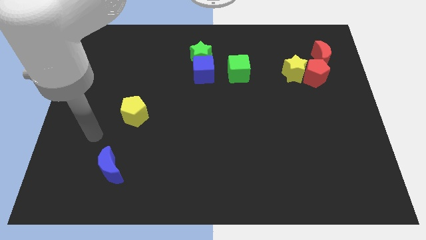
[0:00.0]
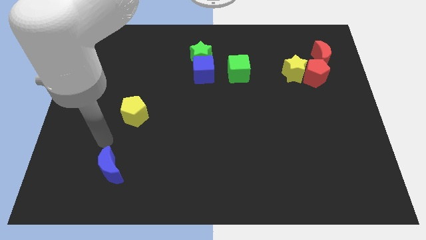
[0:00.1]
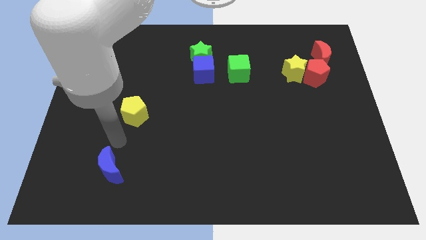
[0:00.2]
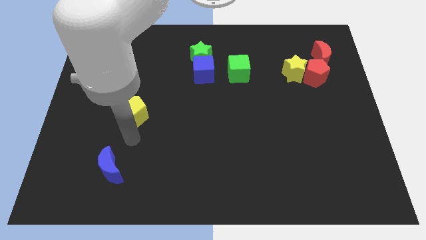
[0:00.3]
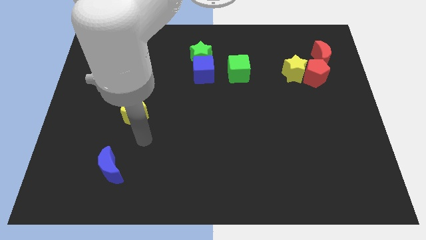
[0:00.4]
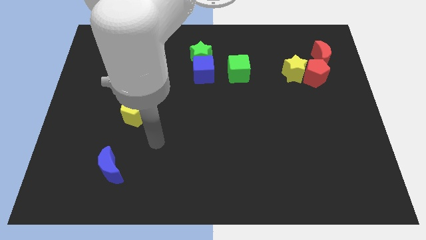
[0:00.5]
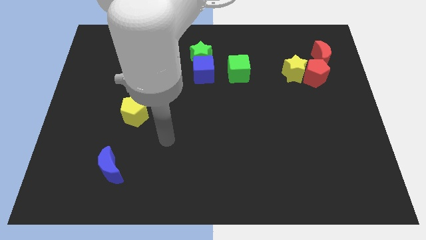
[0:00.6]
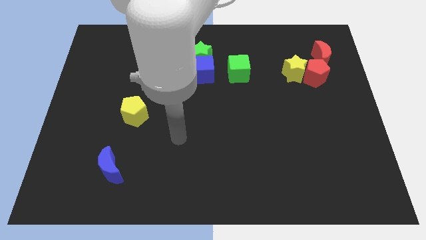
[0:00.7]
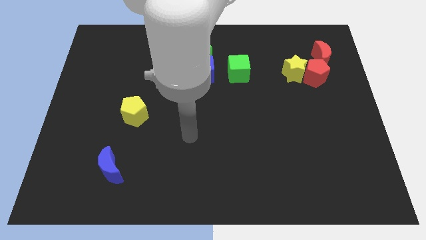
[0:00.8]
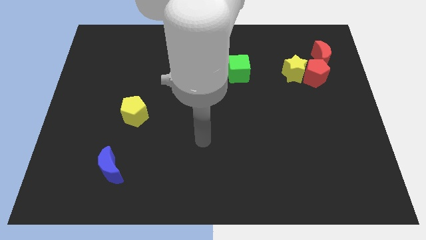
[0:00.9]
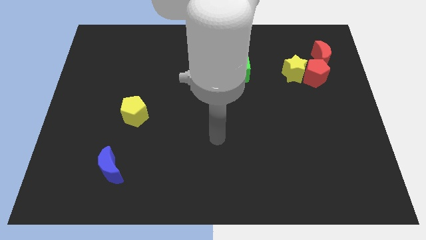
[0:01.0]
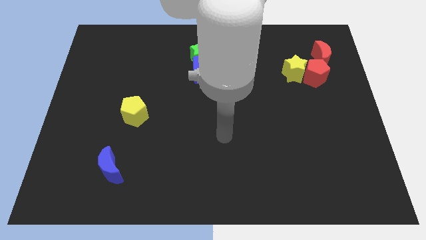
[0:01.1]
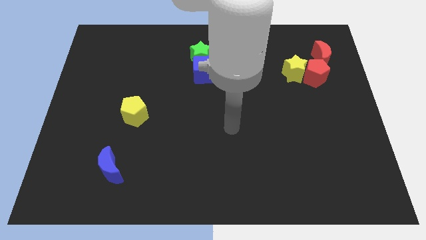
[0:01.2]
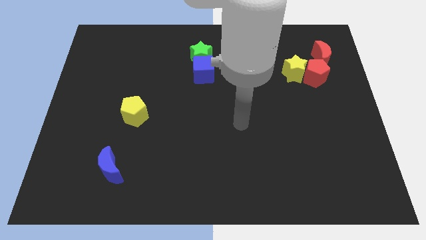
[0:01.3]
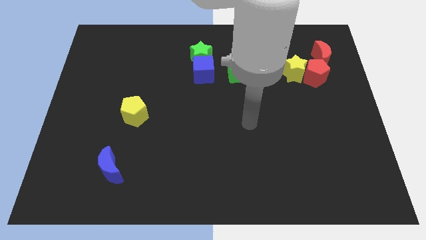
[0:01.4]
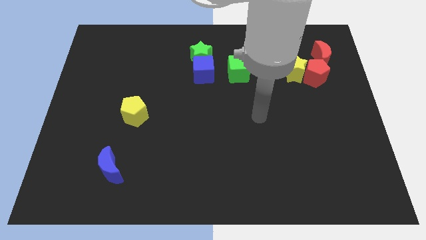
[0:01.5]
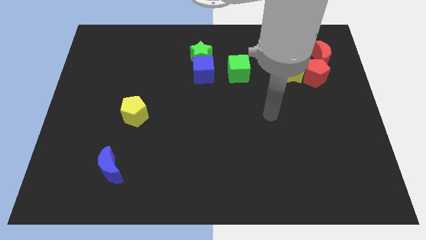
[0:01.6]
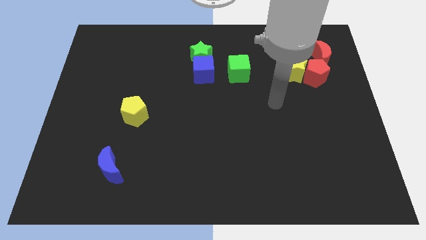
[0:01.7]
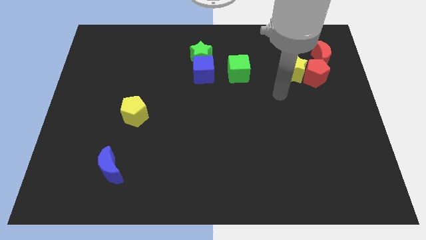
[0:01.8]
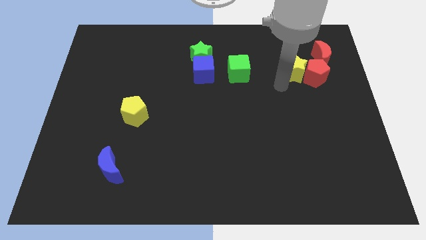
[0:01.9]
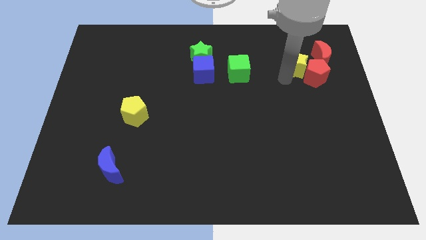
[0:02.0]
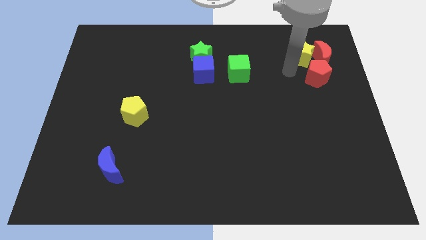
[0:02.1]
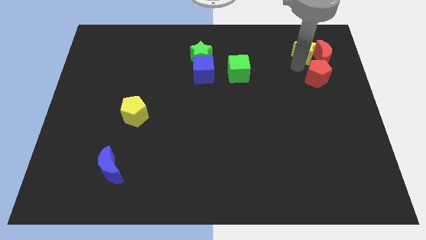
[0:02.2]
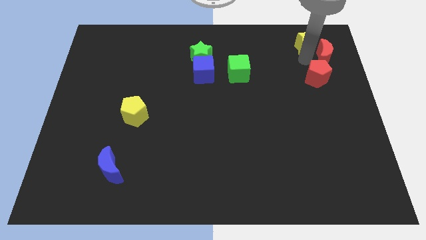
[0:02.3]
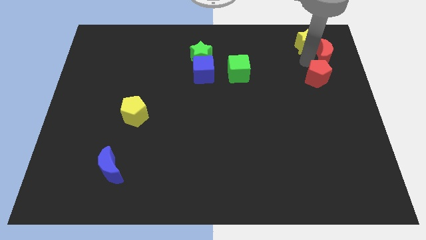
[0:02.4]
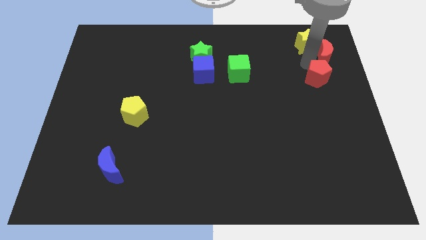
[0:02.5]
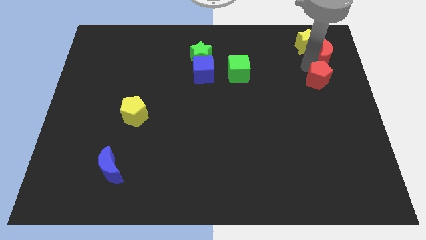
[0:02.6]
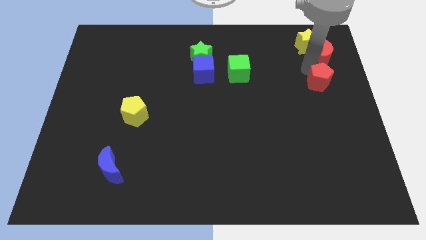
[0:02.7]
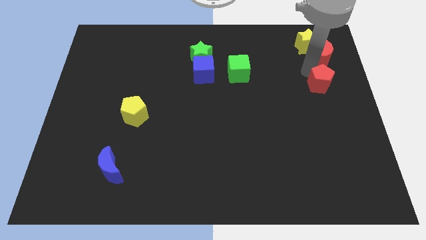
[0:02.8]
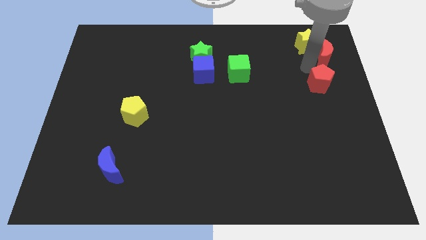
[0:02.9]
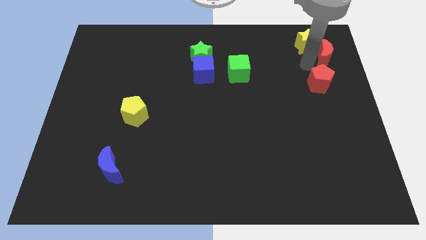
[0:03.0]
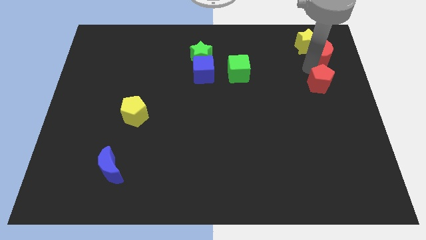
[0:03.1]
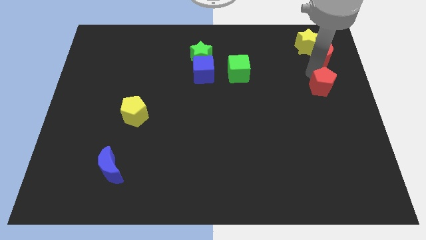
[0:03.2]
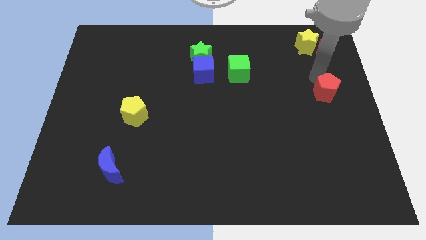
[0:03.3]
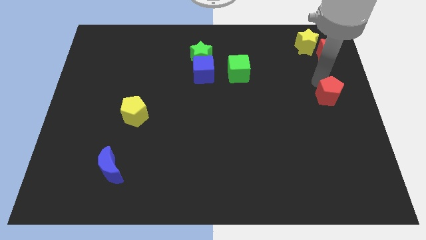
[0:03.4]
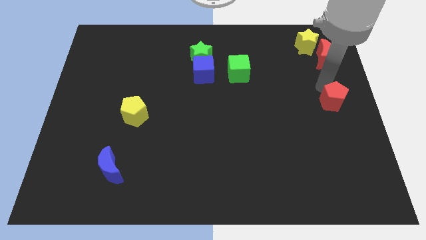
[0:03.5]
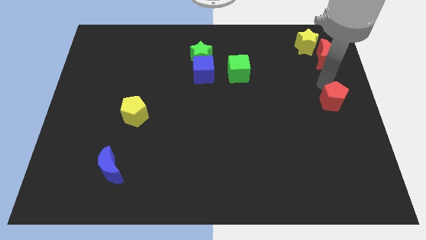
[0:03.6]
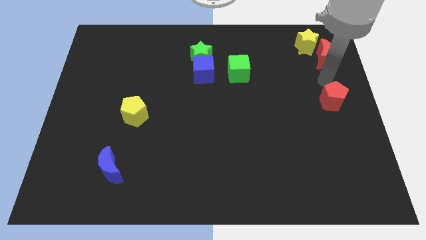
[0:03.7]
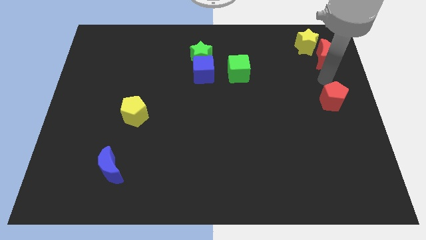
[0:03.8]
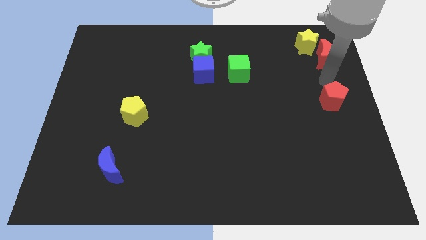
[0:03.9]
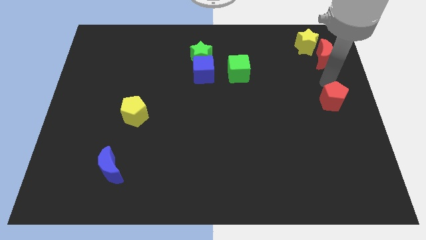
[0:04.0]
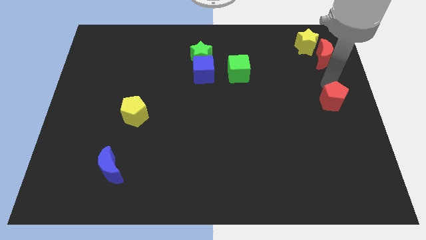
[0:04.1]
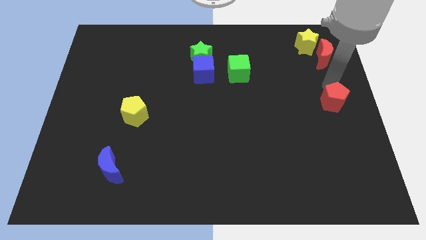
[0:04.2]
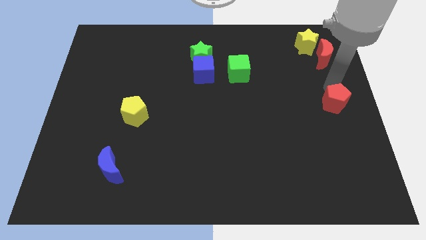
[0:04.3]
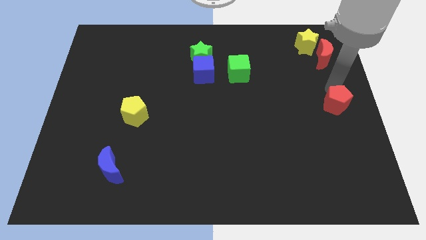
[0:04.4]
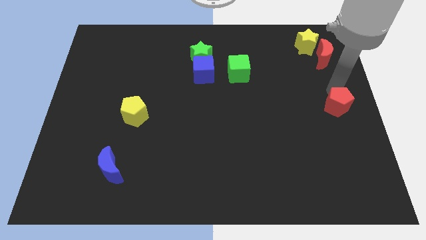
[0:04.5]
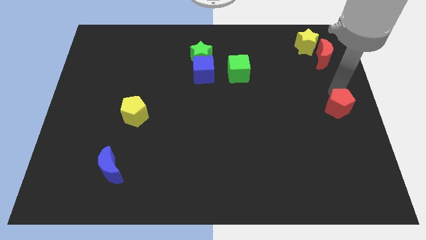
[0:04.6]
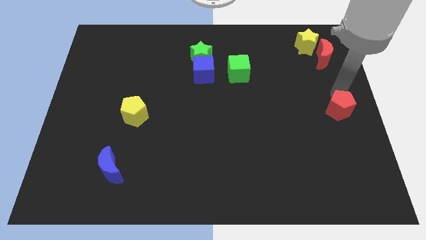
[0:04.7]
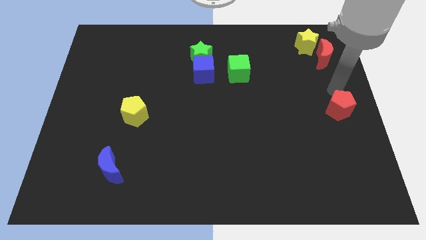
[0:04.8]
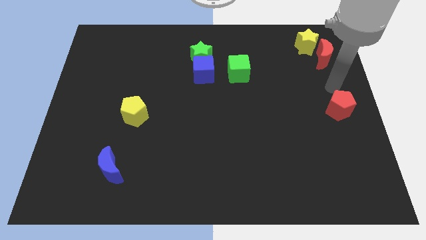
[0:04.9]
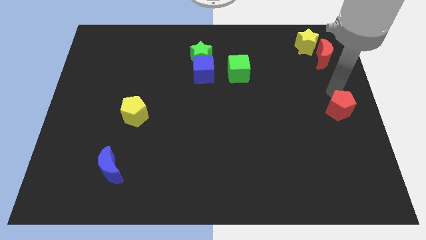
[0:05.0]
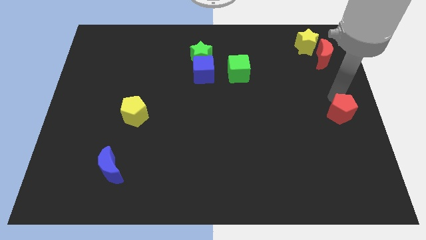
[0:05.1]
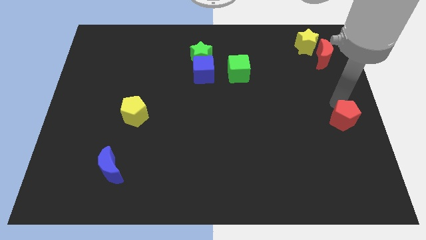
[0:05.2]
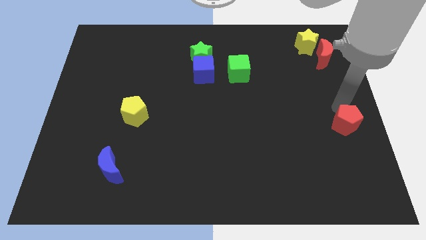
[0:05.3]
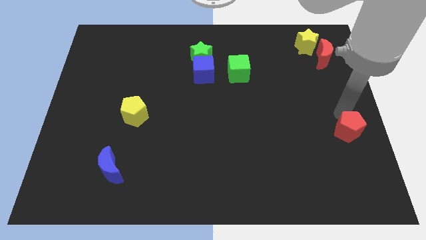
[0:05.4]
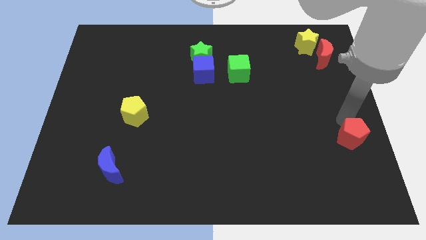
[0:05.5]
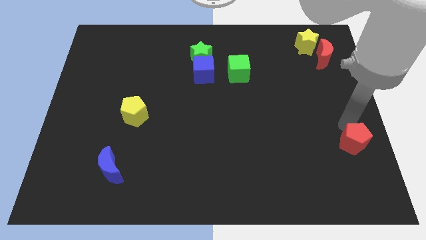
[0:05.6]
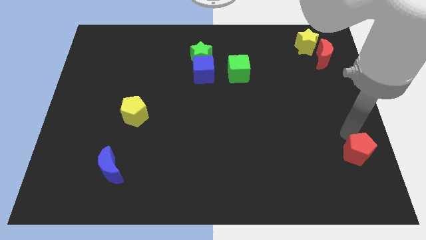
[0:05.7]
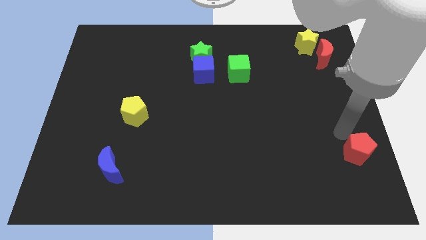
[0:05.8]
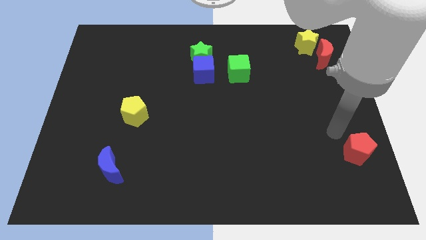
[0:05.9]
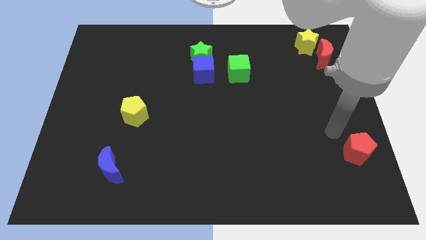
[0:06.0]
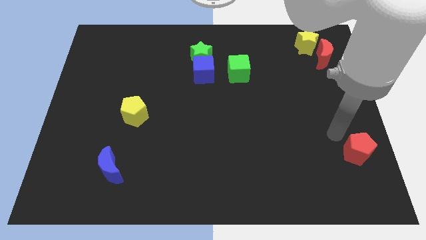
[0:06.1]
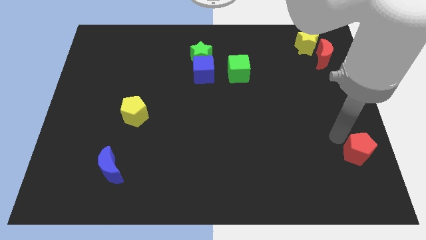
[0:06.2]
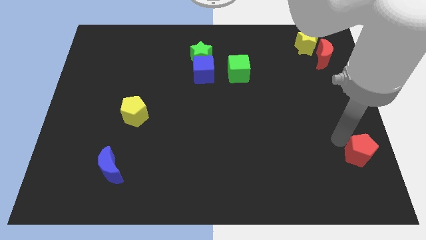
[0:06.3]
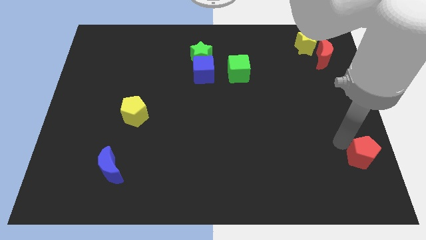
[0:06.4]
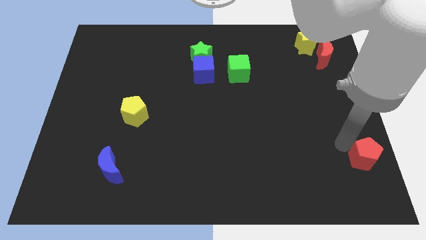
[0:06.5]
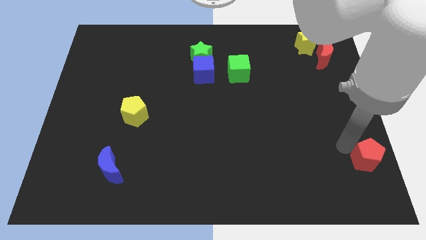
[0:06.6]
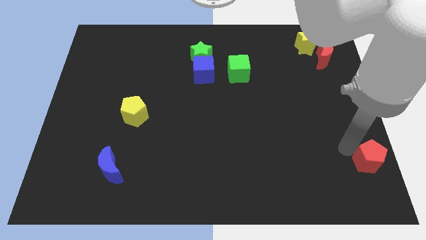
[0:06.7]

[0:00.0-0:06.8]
push the red pentagon to the lower right corner
